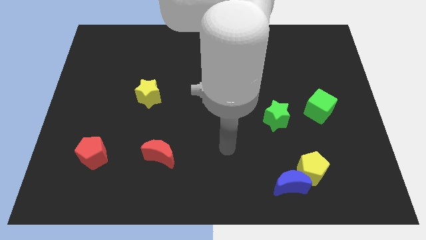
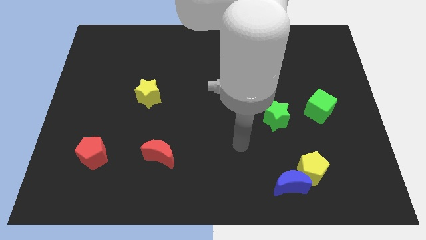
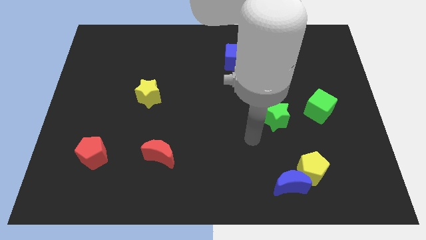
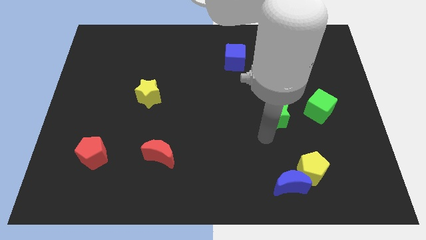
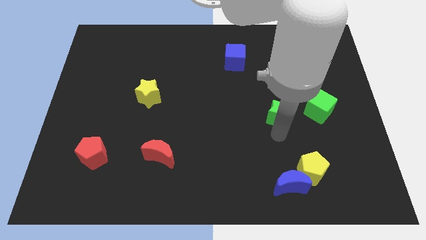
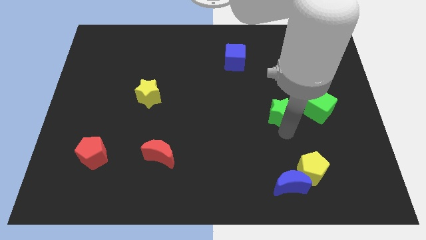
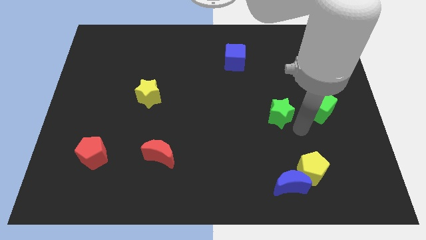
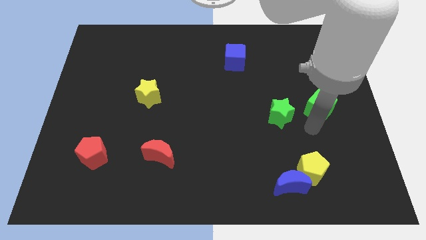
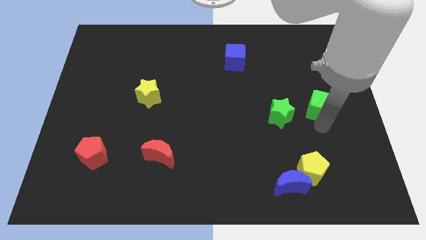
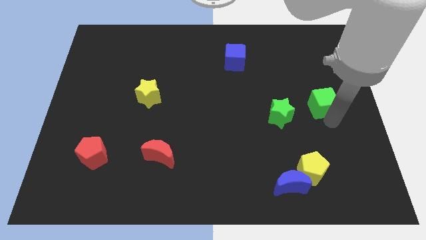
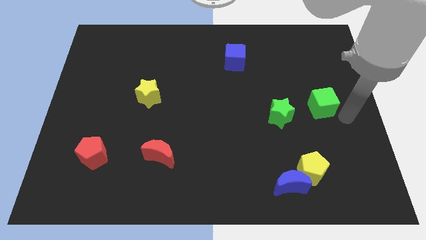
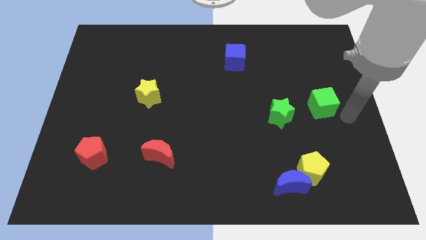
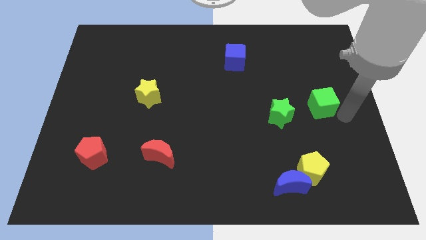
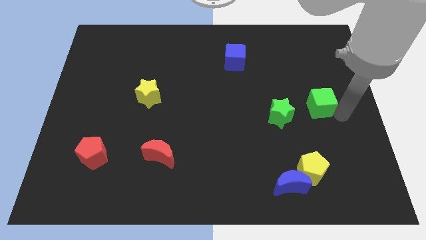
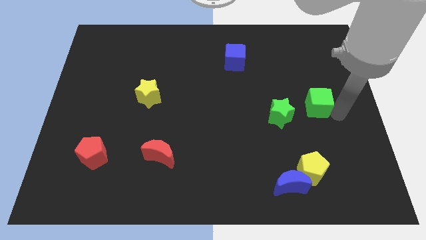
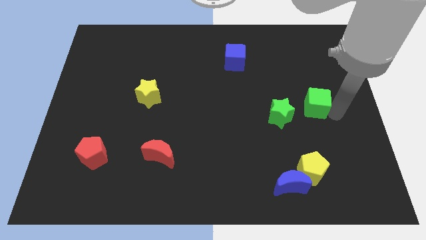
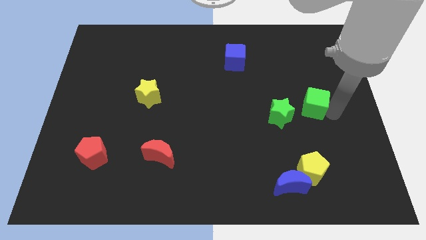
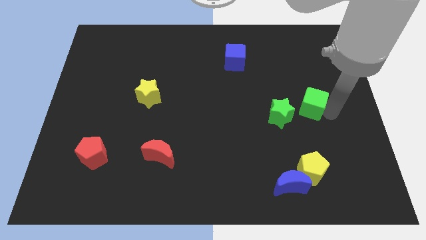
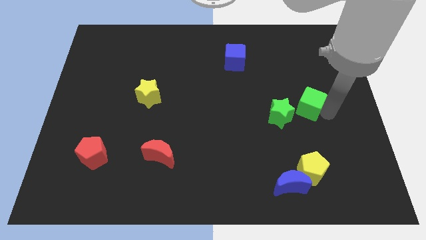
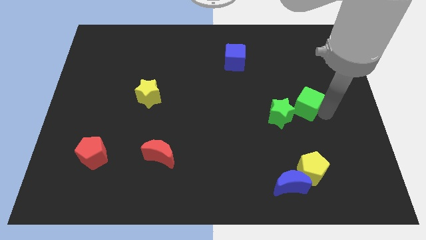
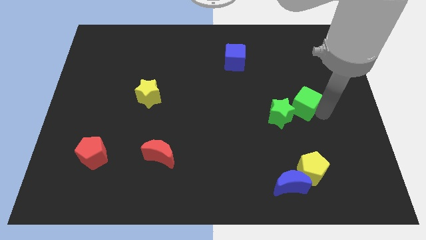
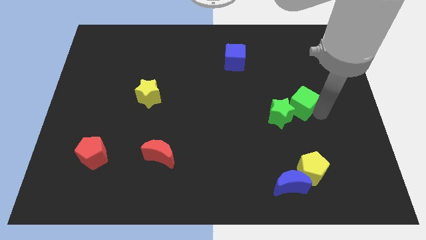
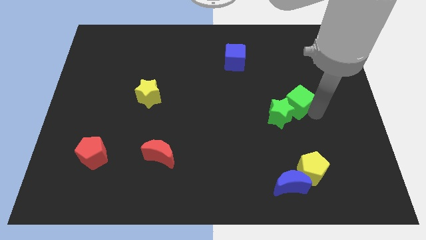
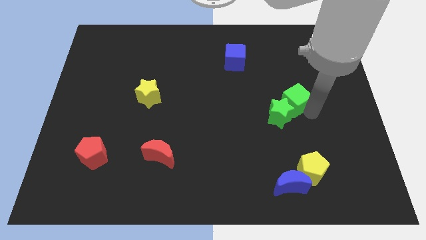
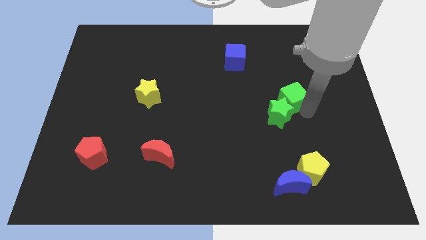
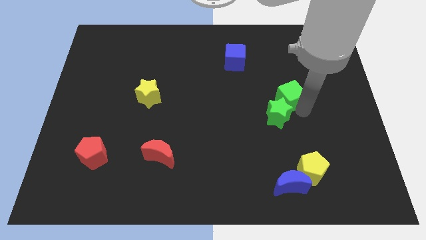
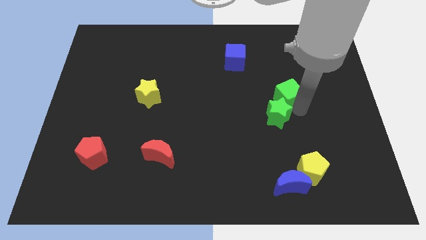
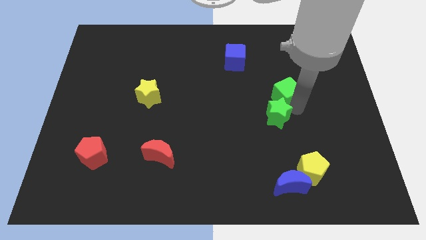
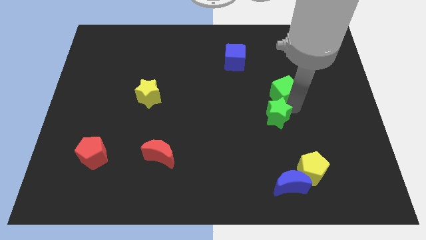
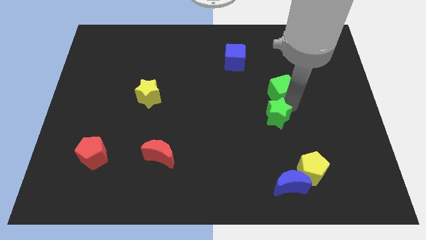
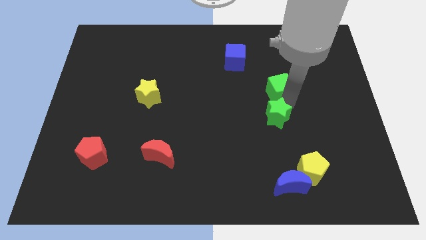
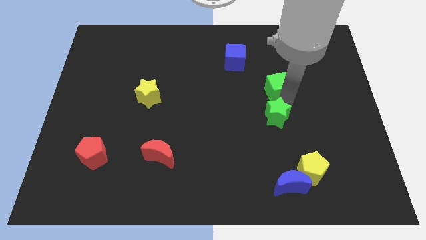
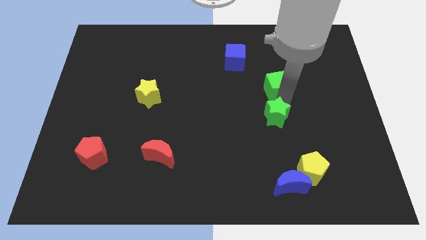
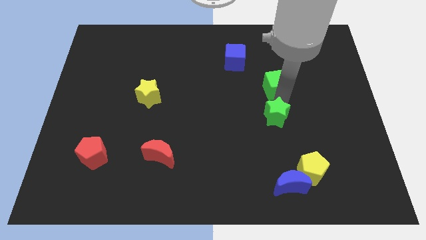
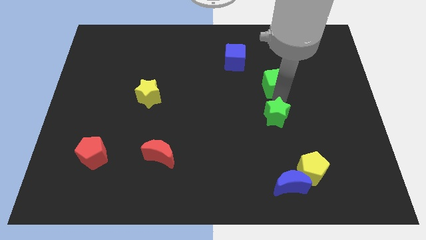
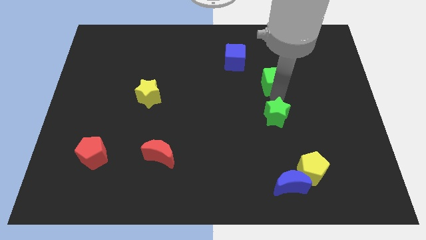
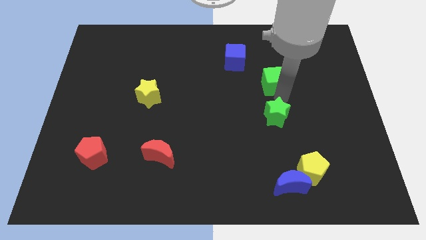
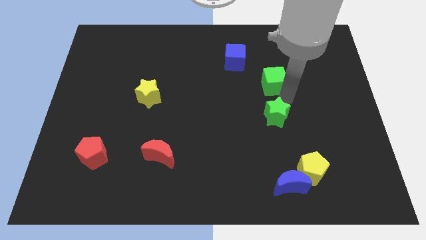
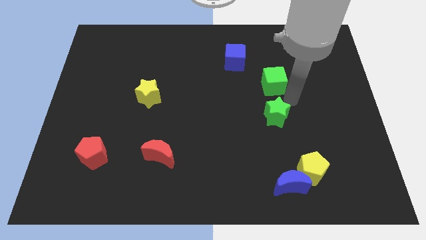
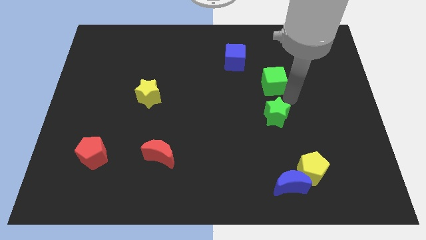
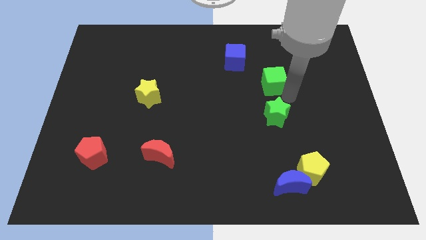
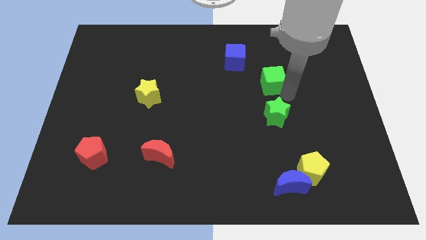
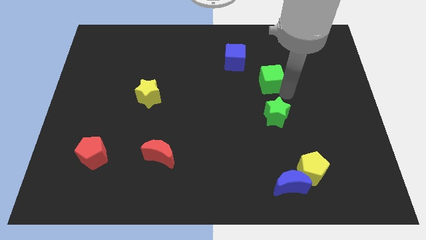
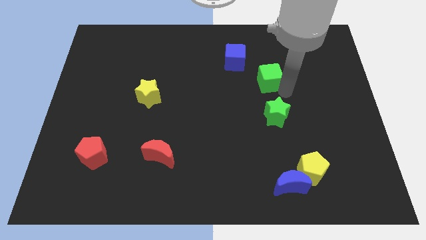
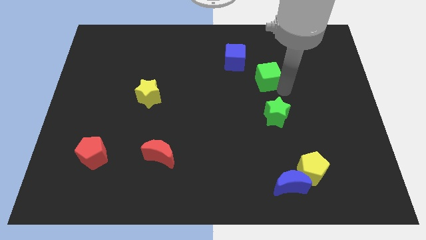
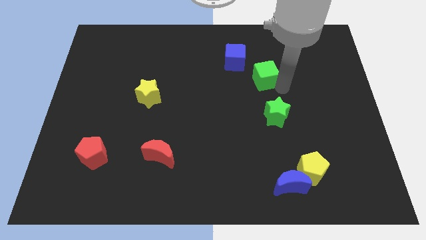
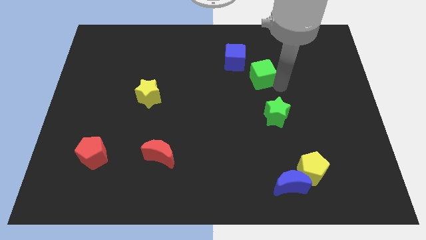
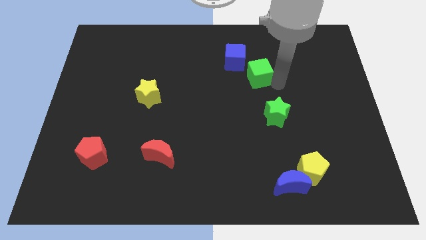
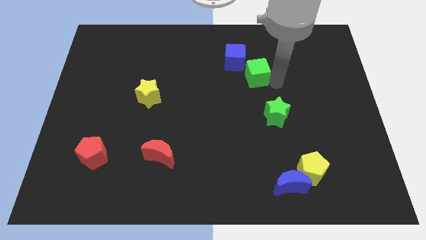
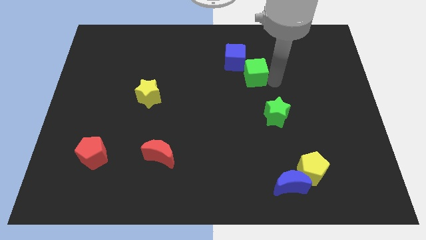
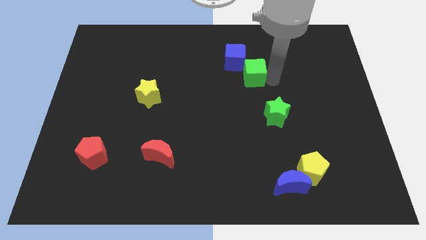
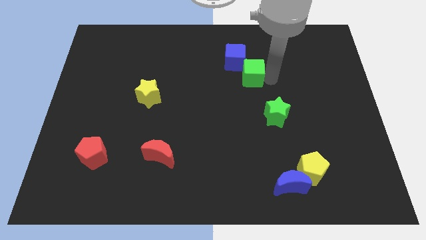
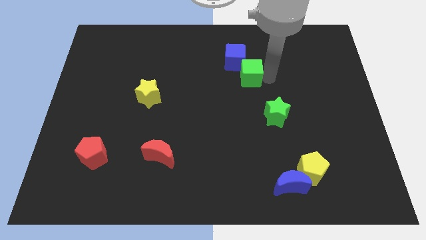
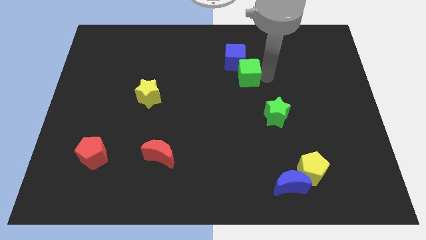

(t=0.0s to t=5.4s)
slide the green cube towards the blue cube

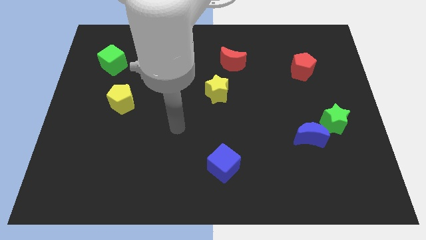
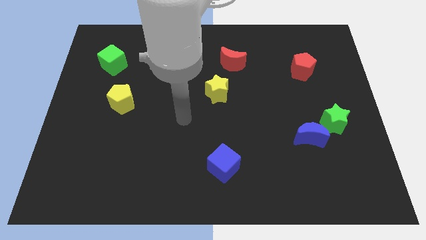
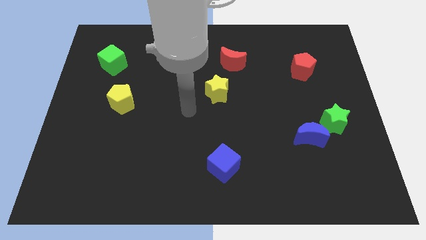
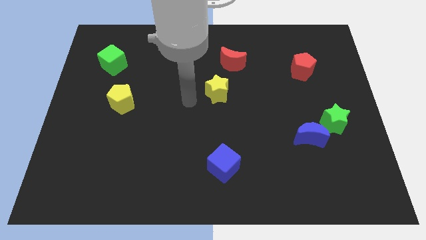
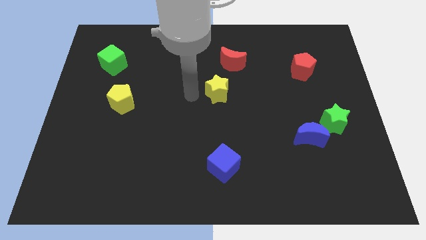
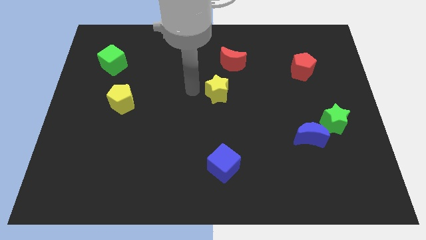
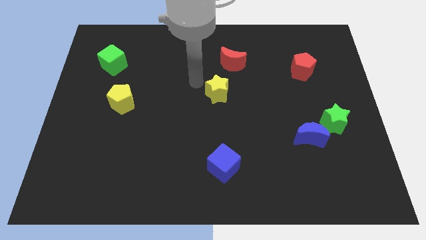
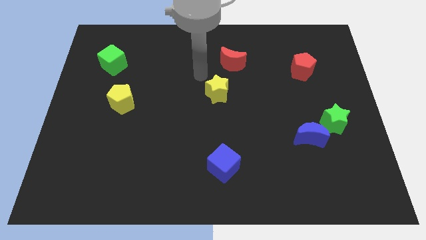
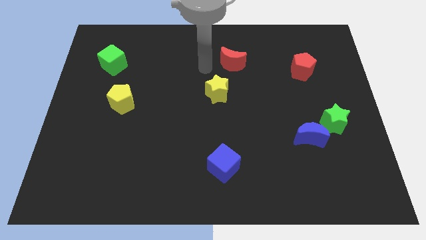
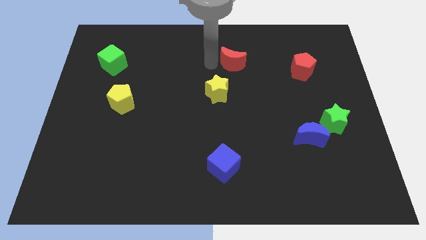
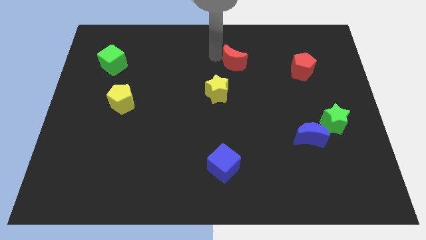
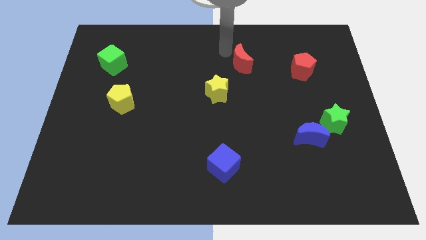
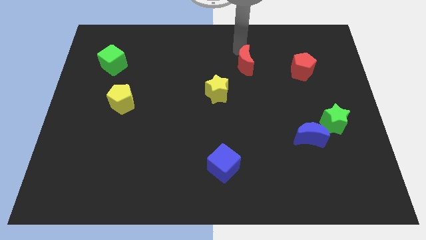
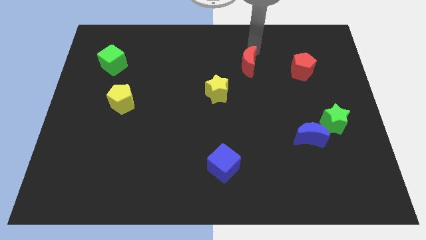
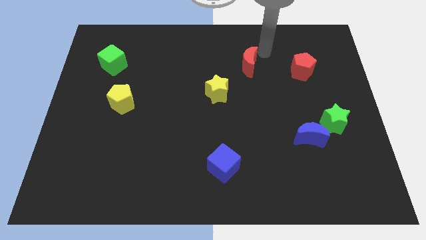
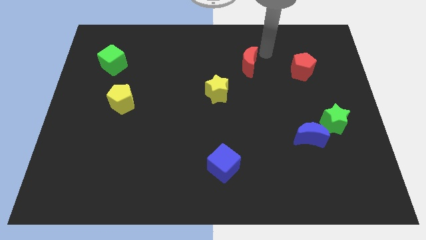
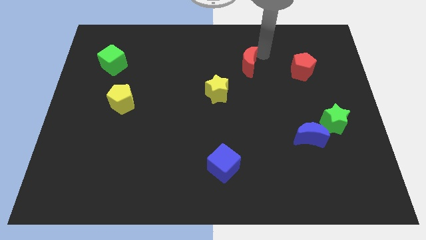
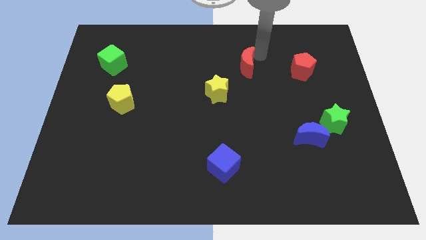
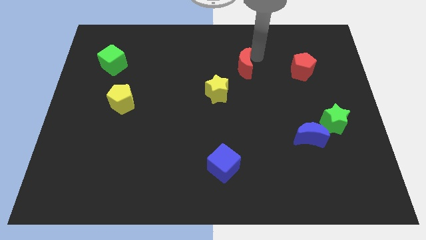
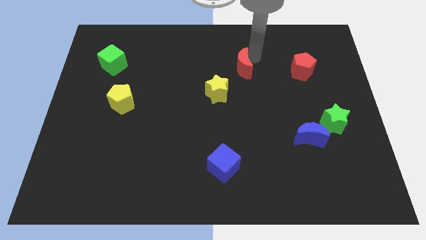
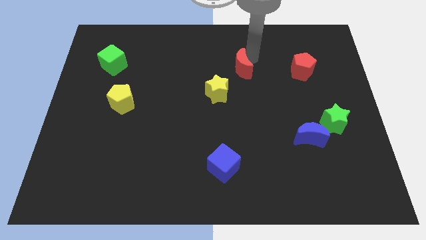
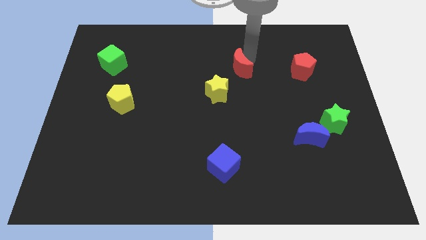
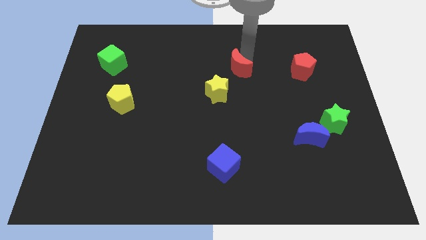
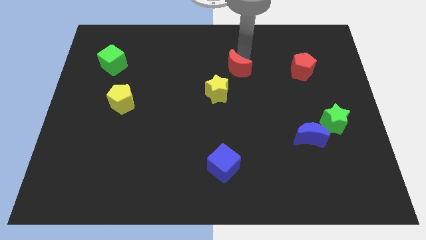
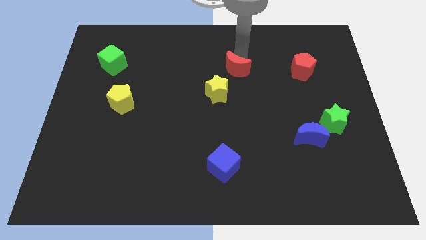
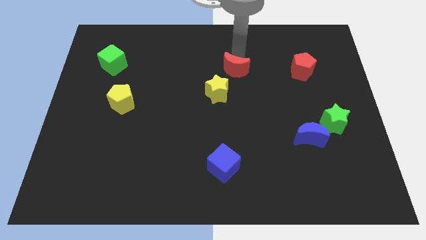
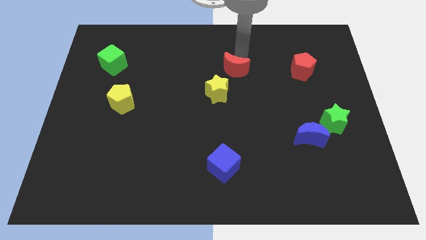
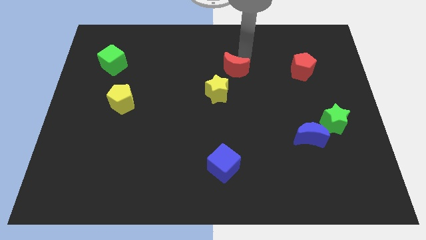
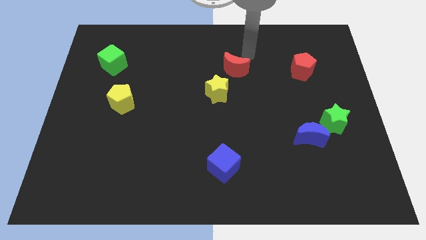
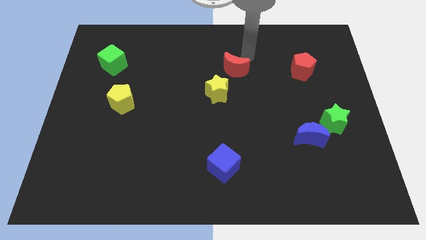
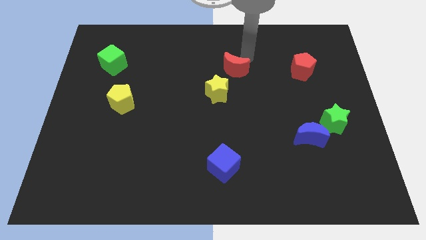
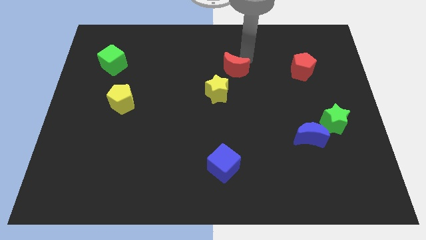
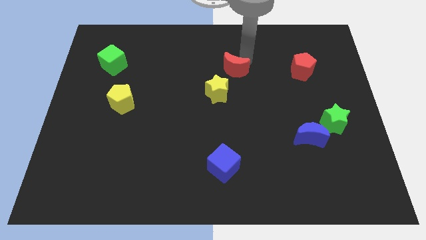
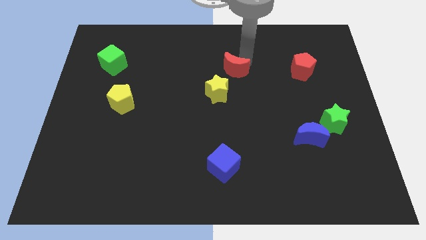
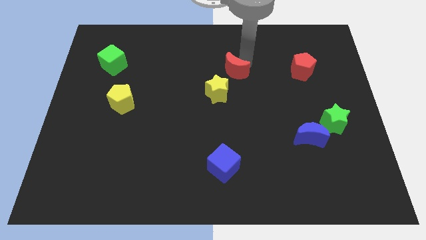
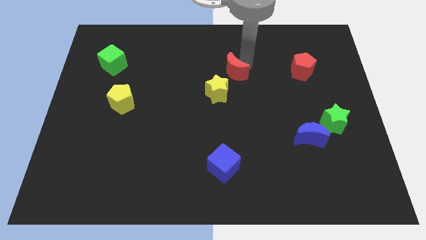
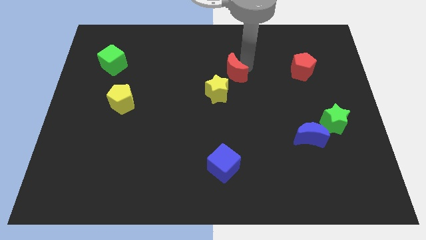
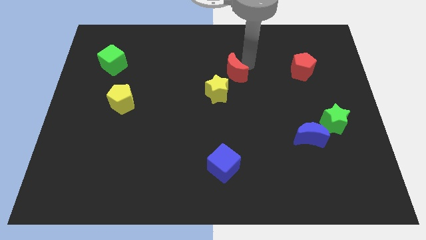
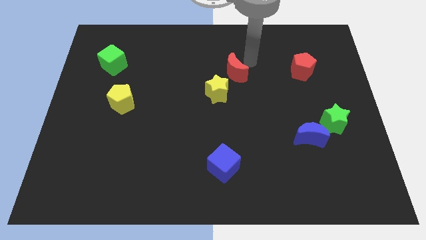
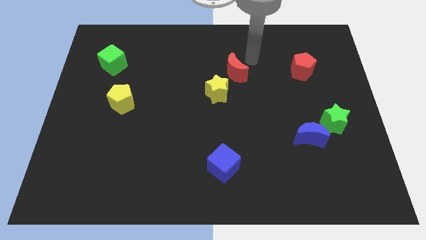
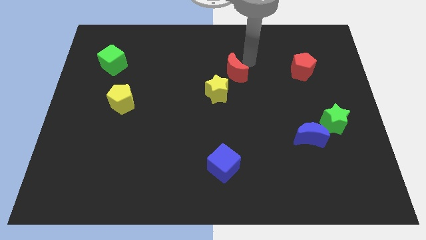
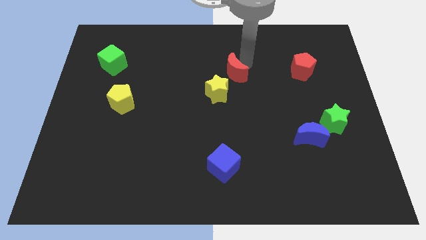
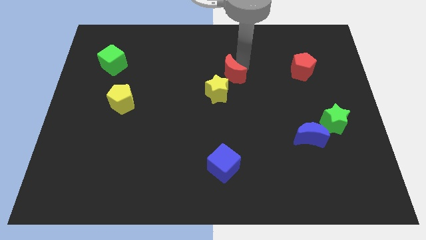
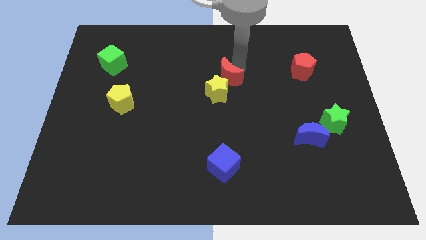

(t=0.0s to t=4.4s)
push the red moon to the yellow star
